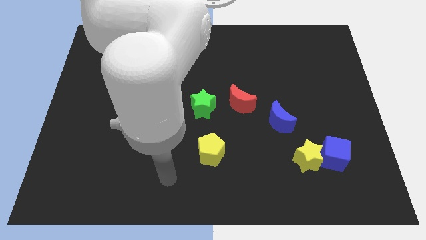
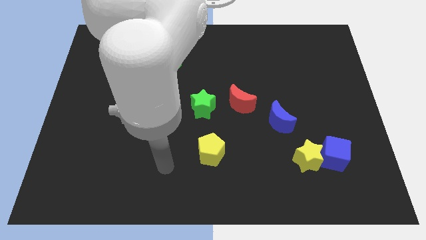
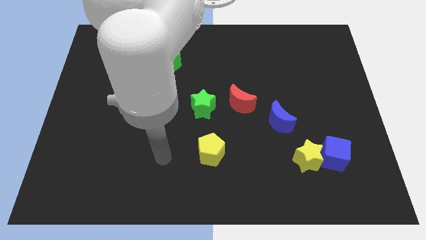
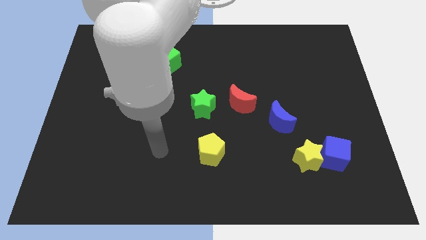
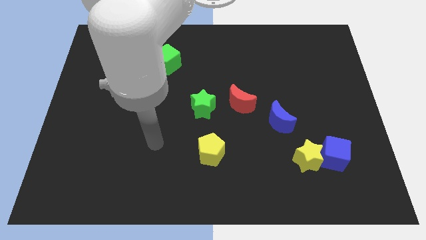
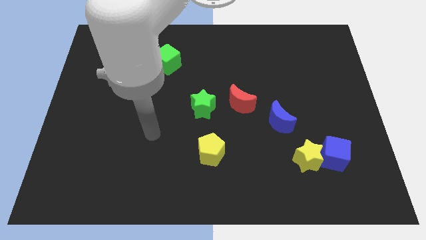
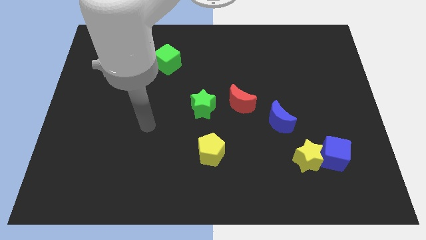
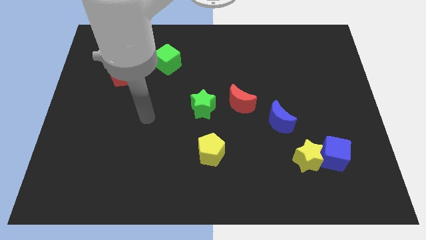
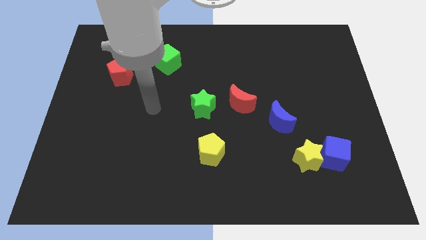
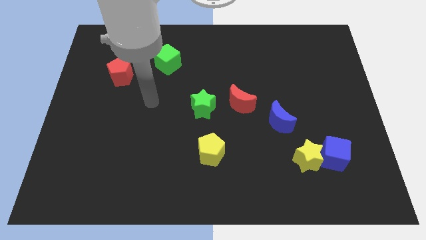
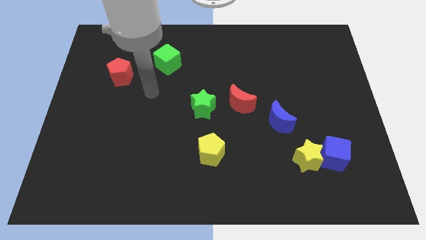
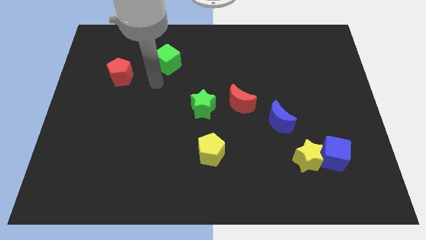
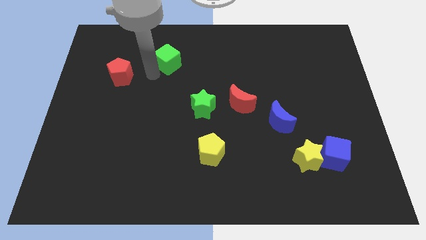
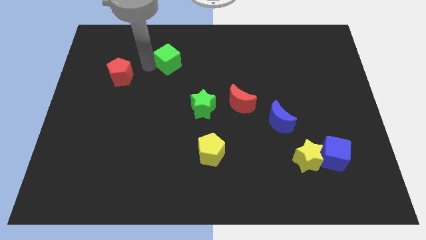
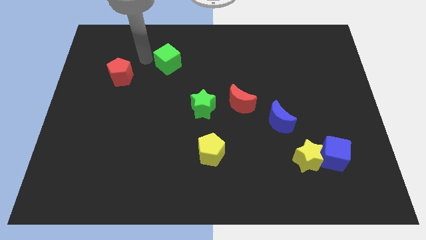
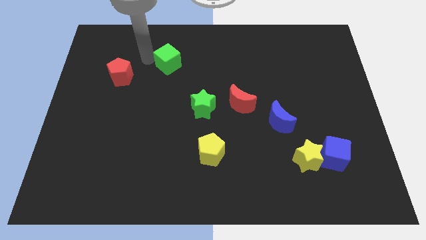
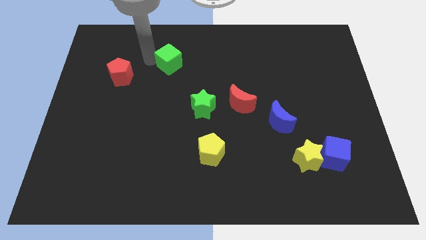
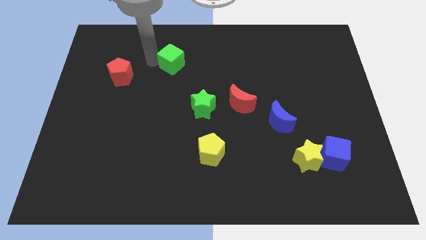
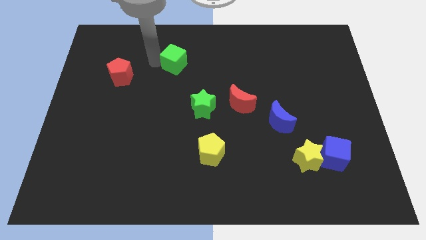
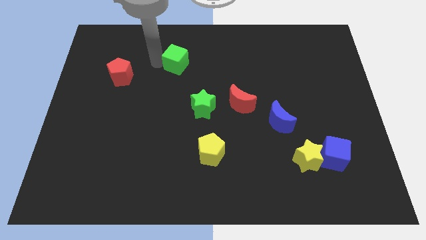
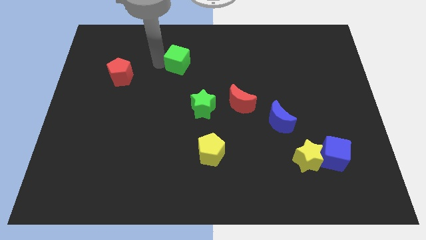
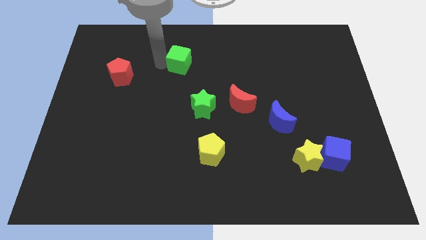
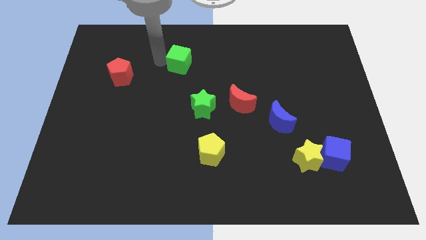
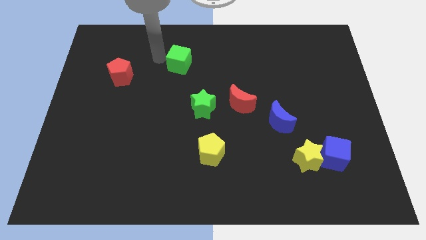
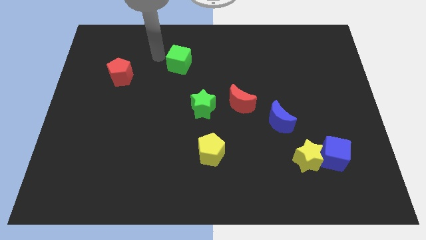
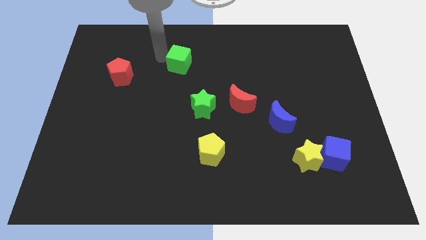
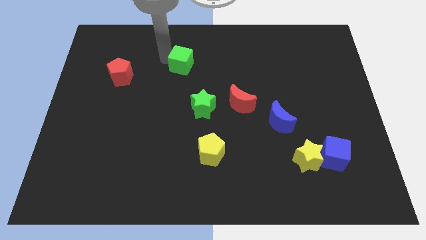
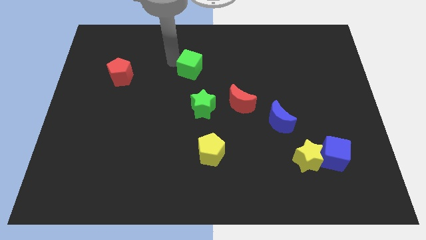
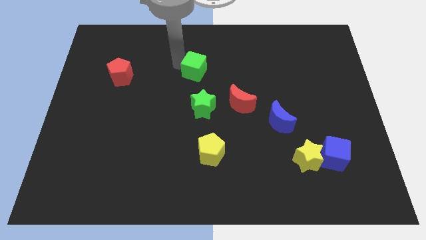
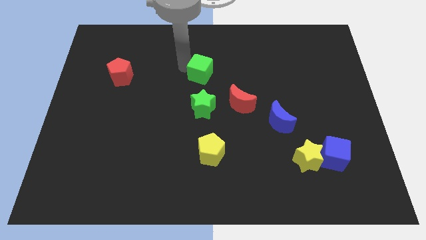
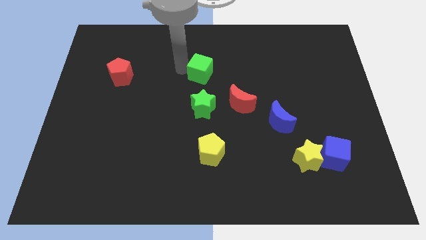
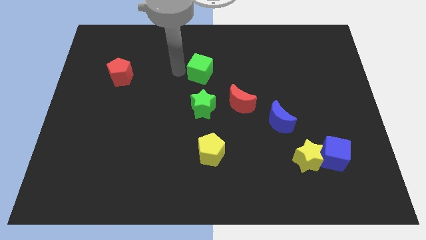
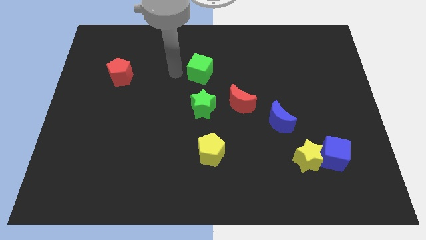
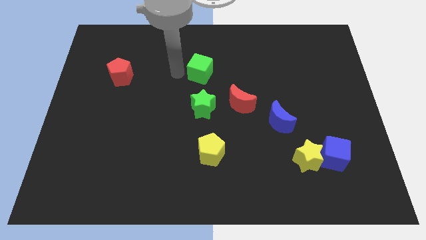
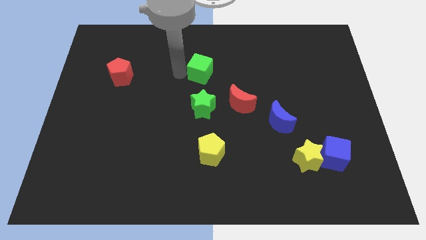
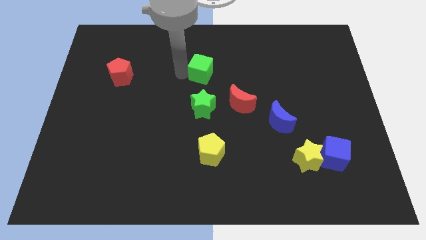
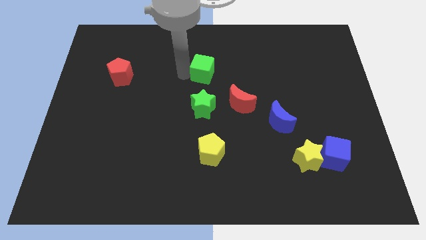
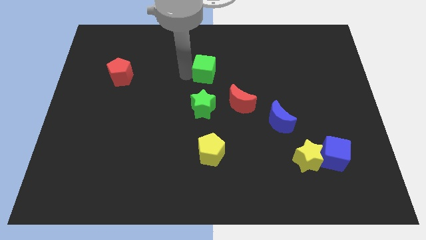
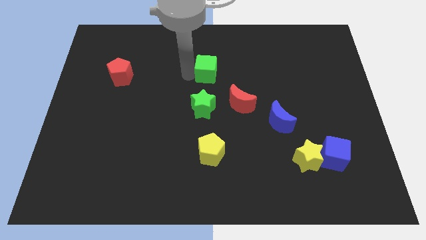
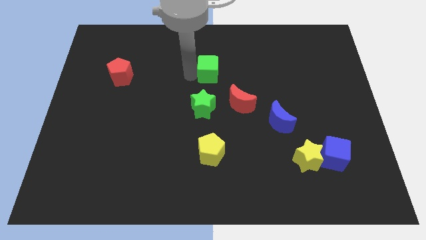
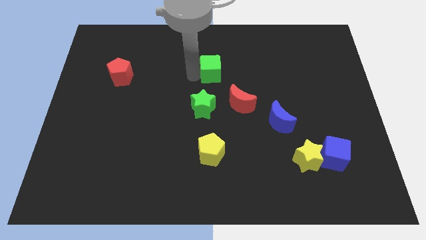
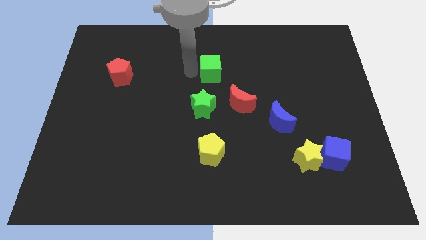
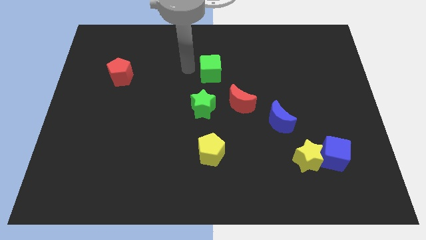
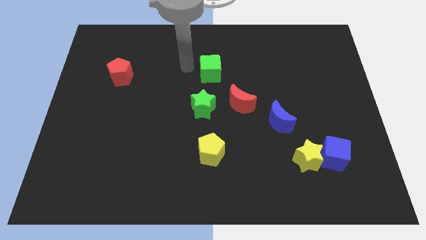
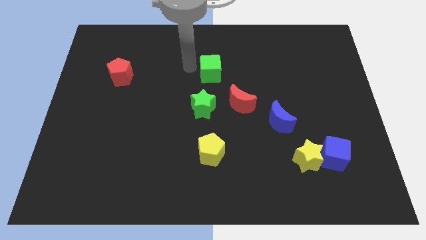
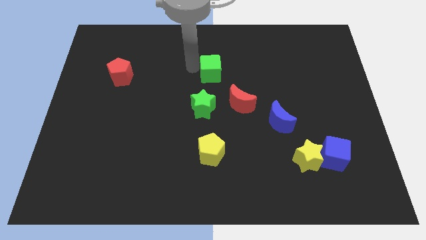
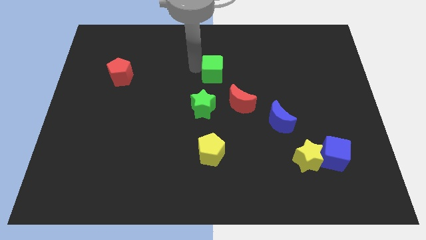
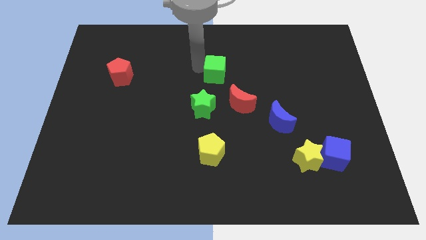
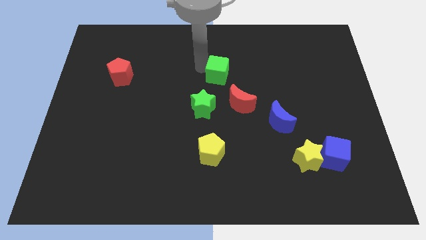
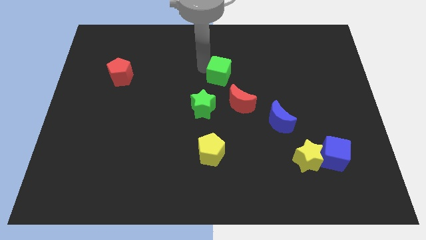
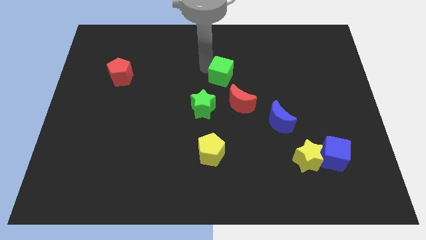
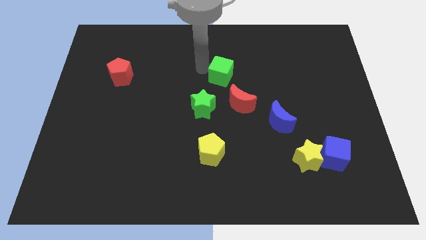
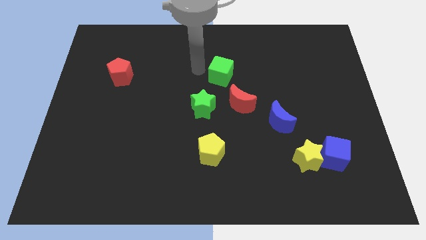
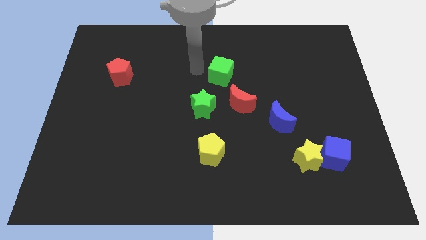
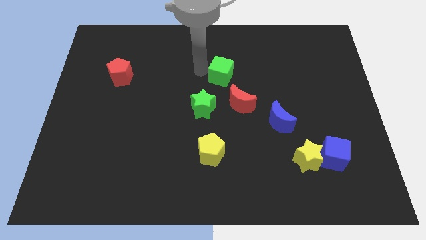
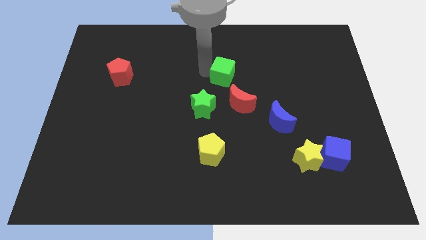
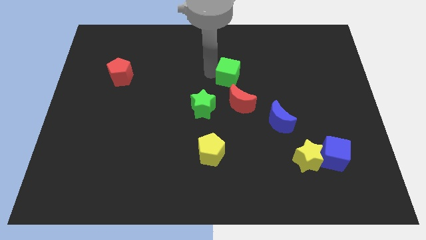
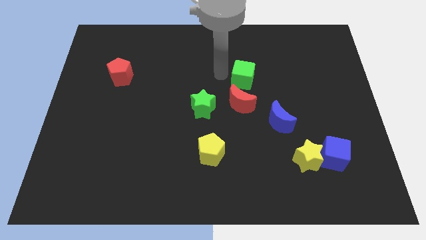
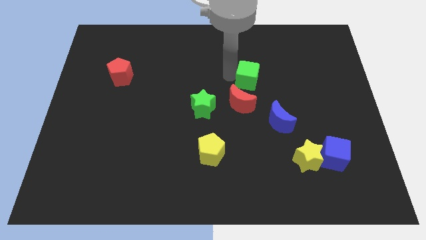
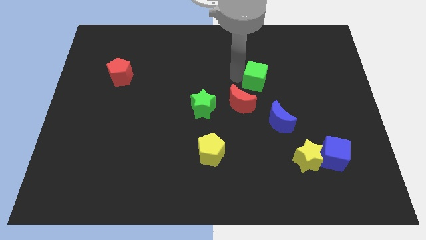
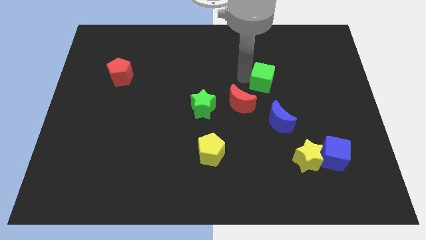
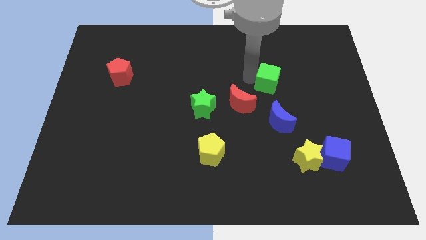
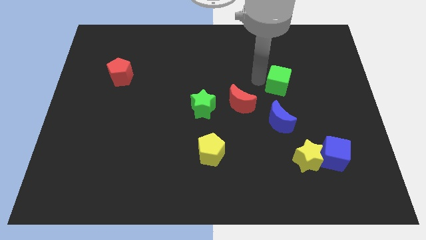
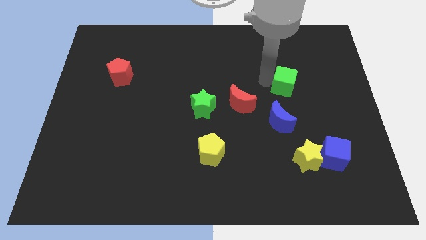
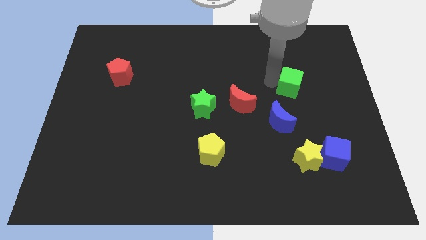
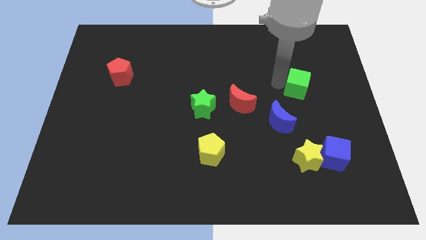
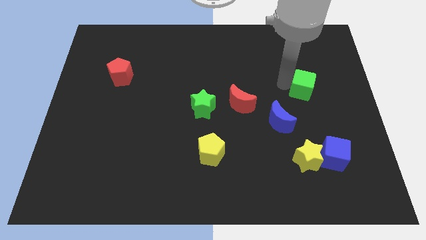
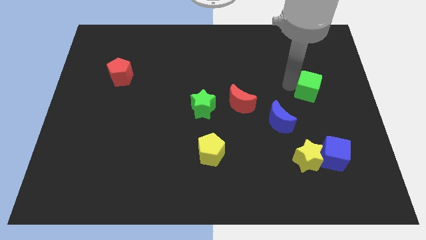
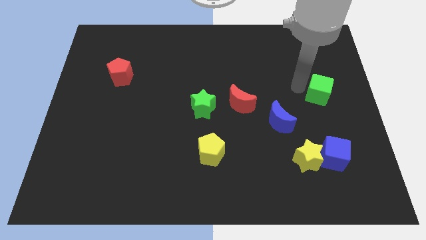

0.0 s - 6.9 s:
push the green cube to the center right
